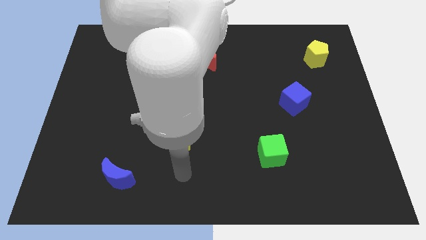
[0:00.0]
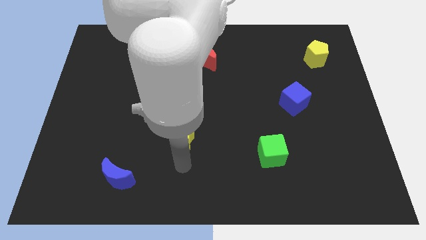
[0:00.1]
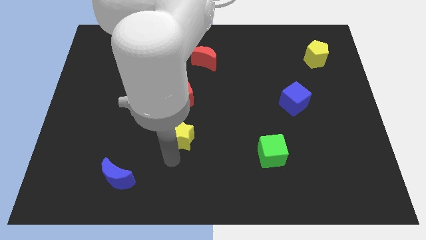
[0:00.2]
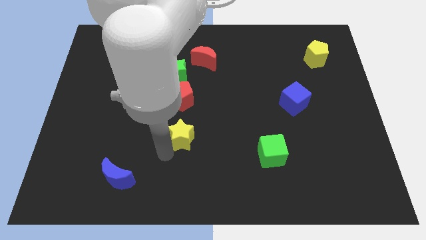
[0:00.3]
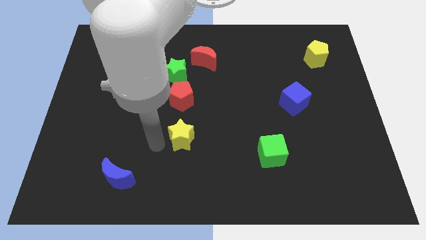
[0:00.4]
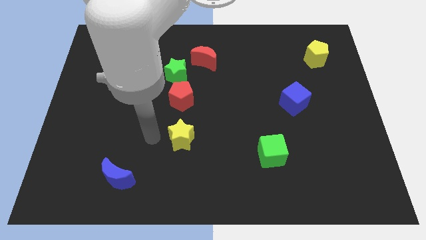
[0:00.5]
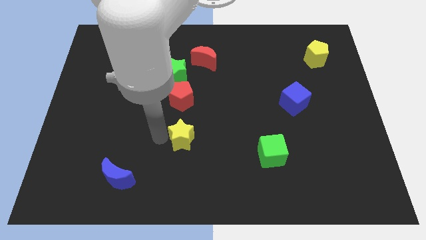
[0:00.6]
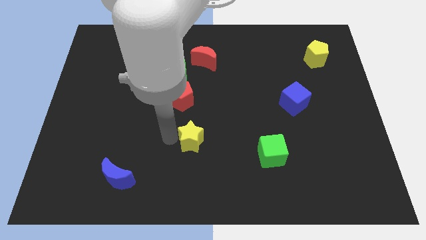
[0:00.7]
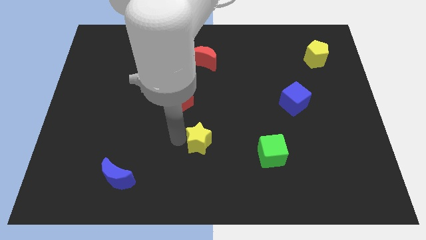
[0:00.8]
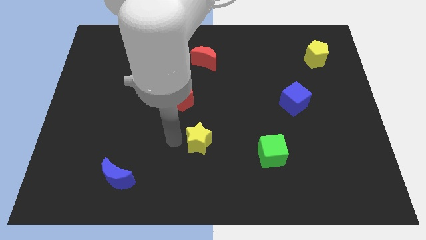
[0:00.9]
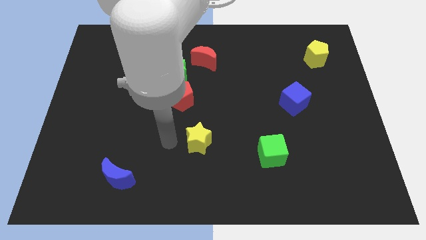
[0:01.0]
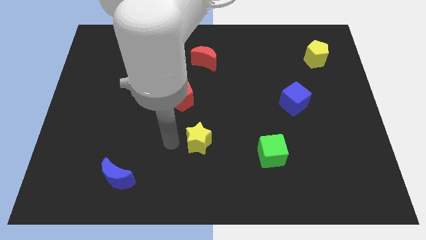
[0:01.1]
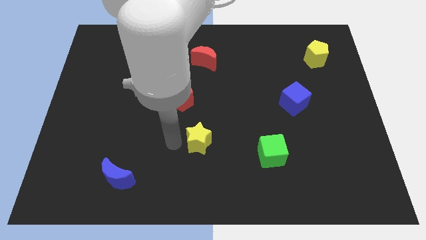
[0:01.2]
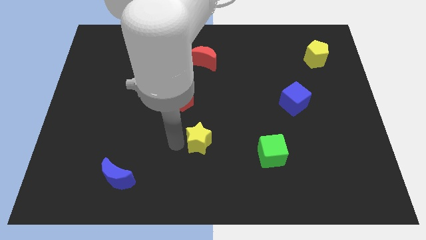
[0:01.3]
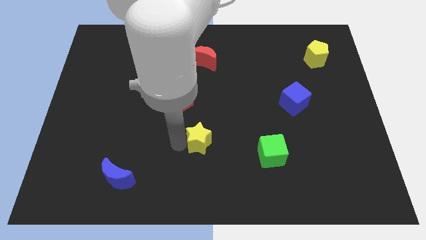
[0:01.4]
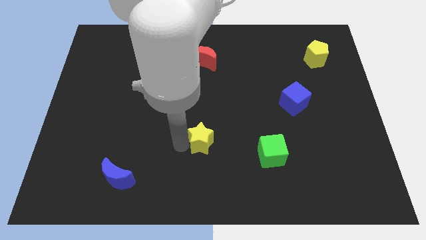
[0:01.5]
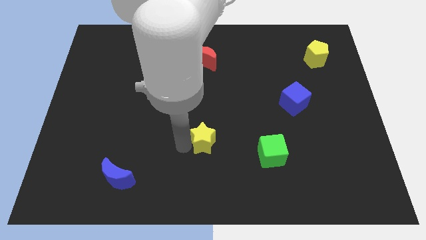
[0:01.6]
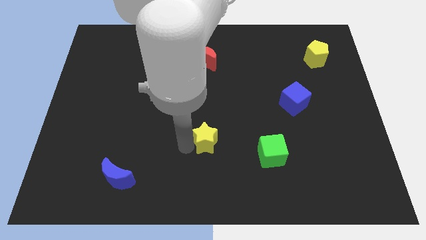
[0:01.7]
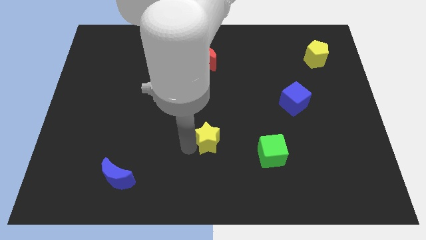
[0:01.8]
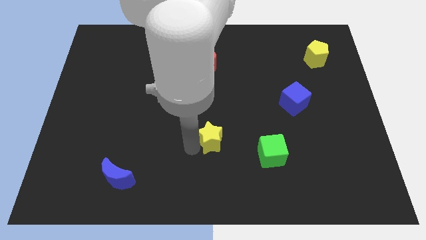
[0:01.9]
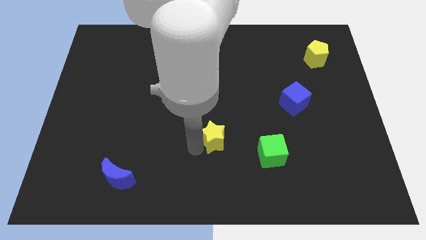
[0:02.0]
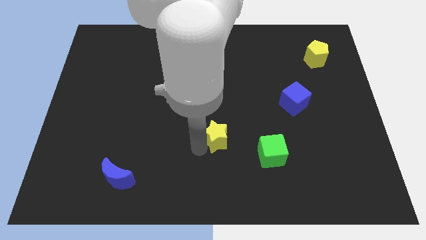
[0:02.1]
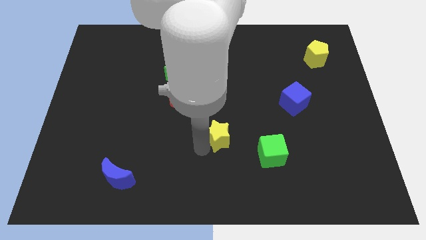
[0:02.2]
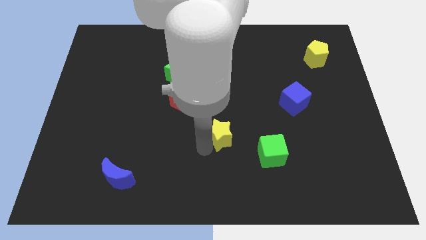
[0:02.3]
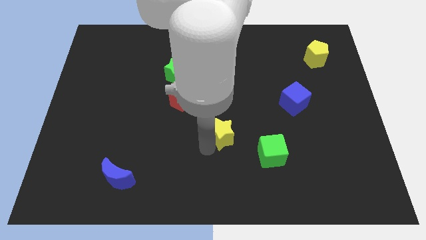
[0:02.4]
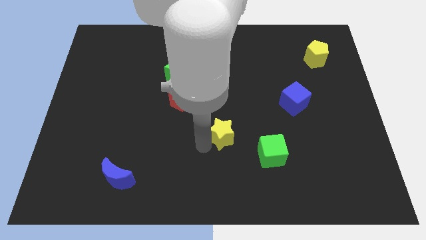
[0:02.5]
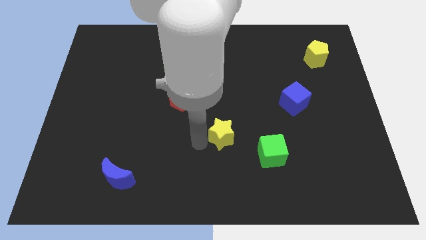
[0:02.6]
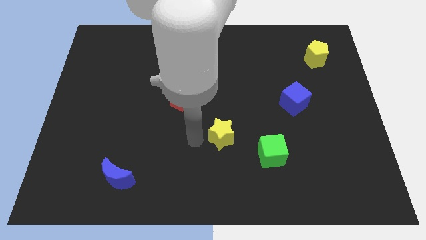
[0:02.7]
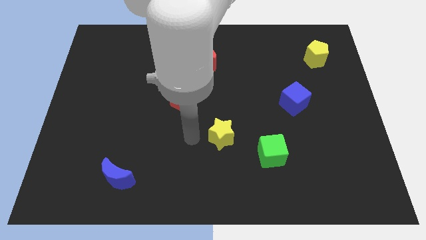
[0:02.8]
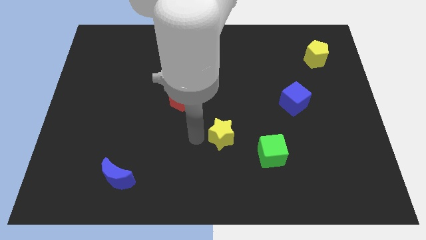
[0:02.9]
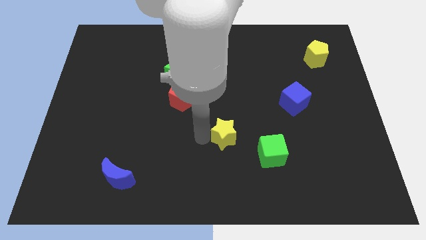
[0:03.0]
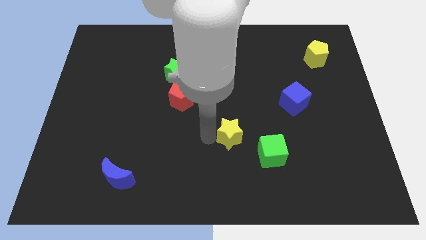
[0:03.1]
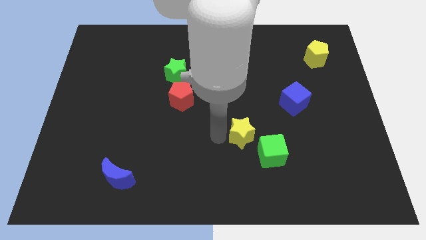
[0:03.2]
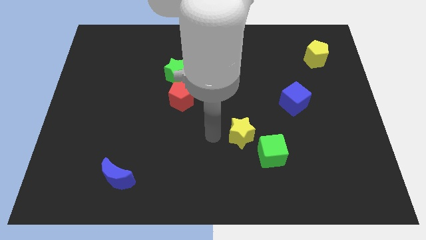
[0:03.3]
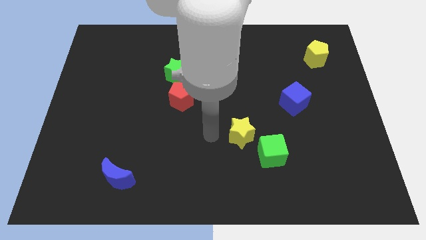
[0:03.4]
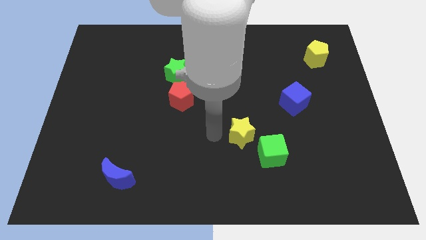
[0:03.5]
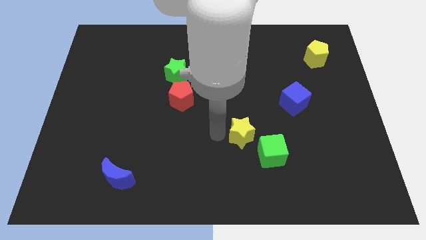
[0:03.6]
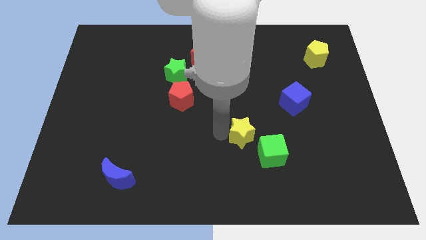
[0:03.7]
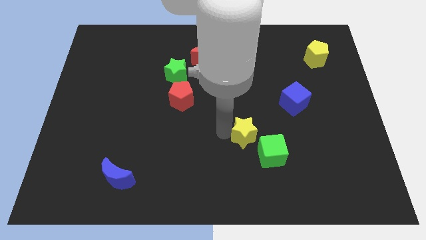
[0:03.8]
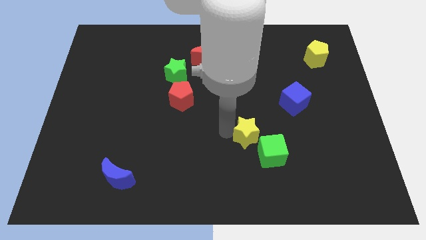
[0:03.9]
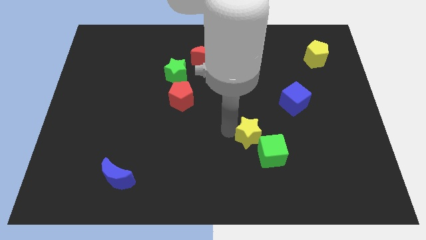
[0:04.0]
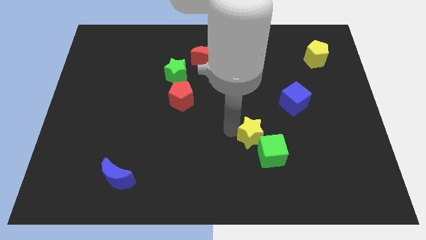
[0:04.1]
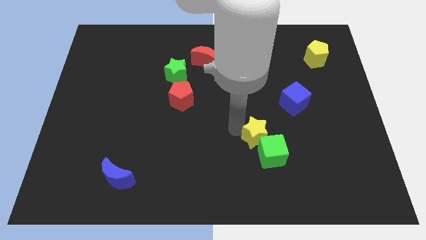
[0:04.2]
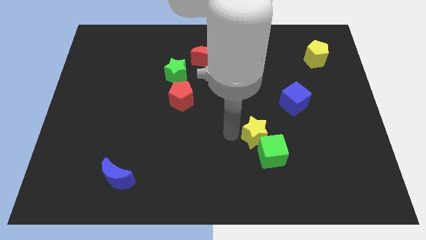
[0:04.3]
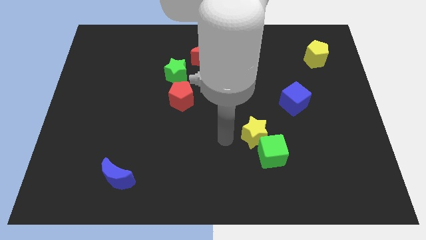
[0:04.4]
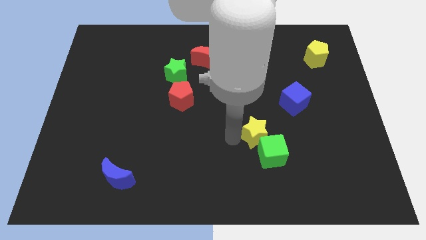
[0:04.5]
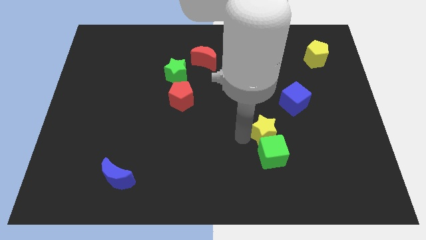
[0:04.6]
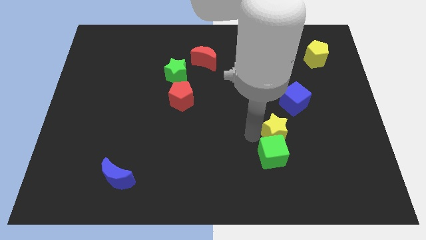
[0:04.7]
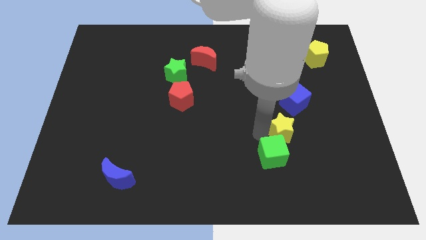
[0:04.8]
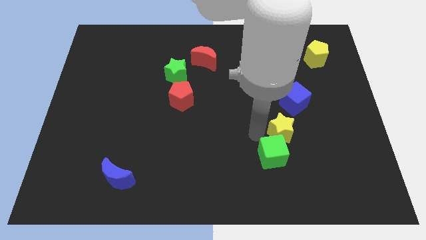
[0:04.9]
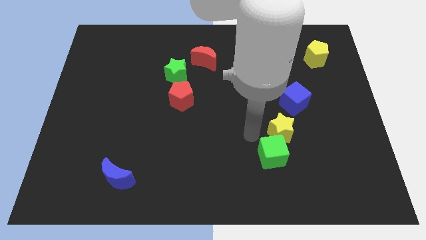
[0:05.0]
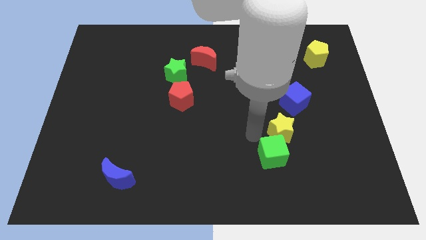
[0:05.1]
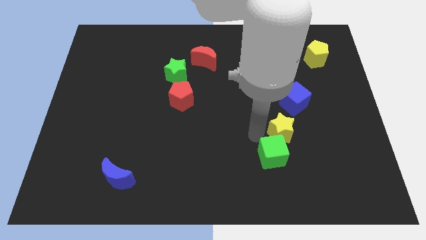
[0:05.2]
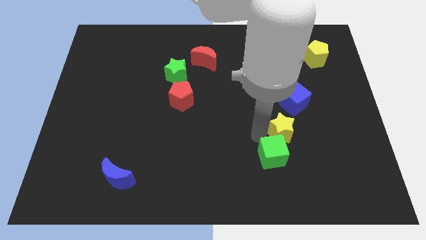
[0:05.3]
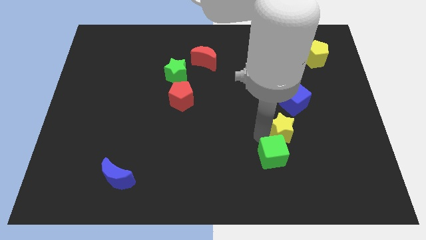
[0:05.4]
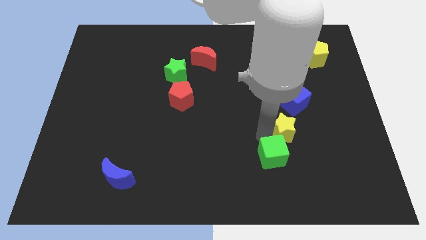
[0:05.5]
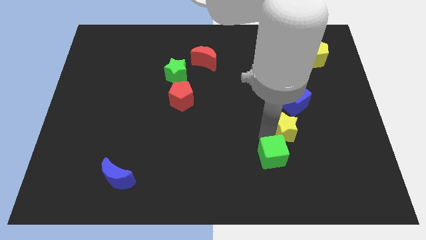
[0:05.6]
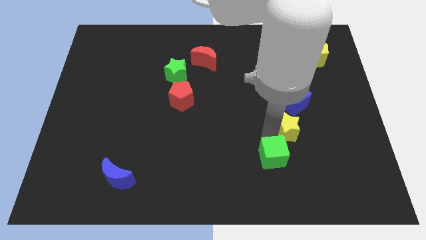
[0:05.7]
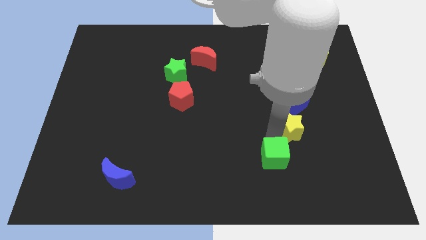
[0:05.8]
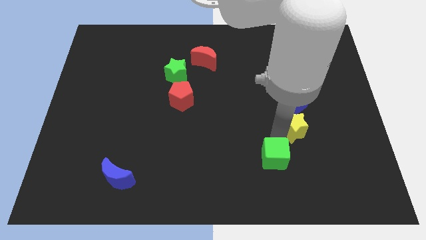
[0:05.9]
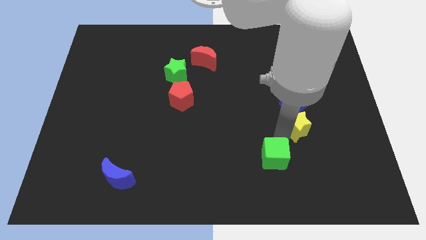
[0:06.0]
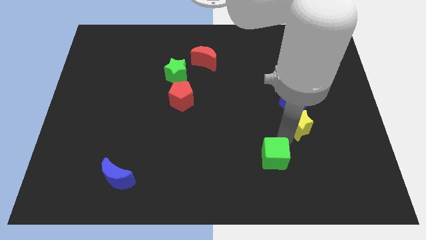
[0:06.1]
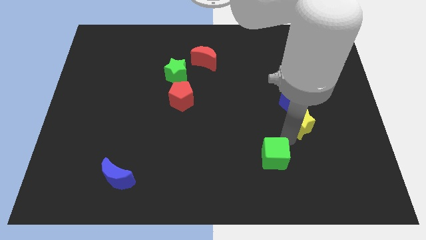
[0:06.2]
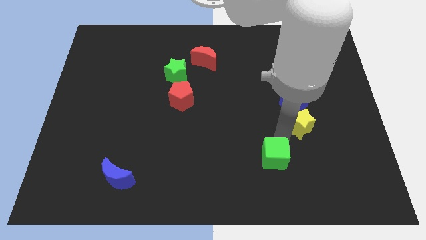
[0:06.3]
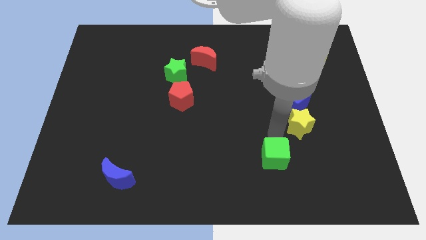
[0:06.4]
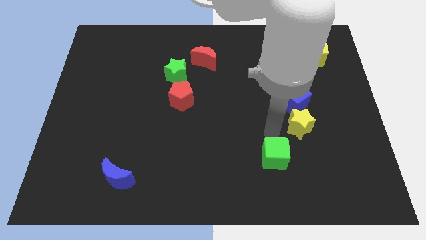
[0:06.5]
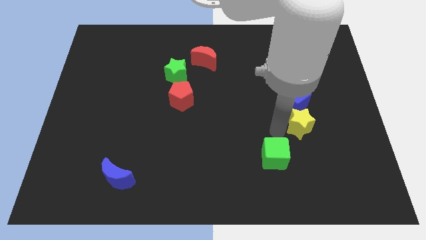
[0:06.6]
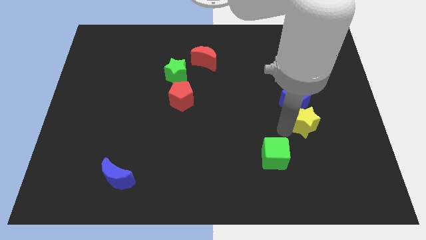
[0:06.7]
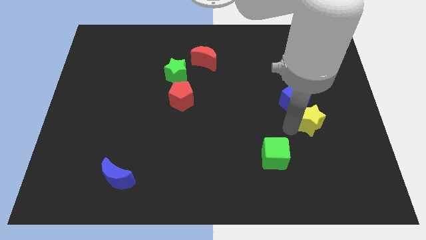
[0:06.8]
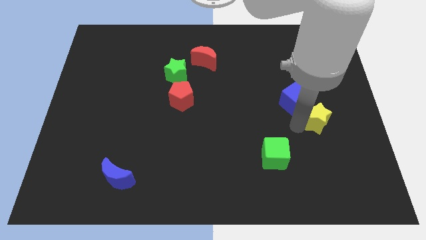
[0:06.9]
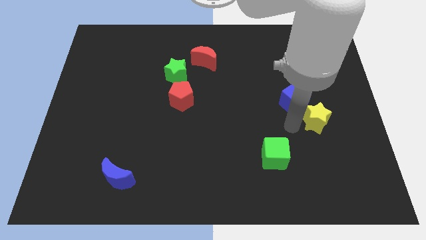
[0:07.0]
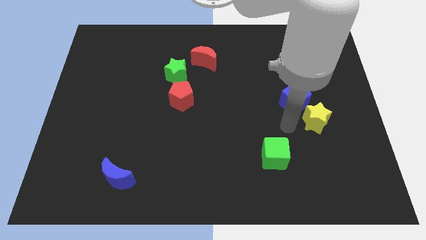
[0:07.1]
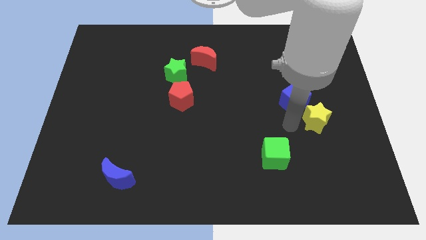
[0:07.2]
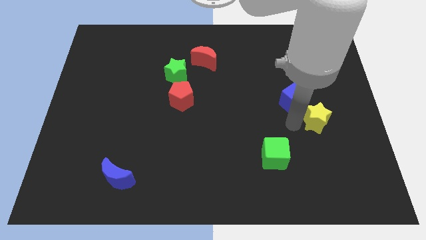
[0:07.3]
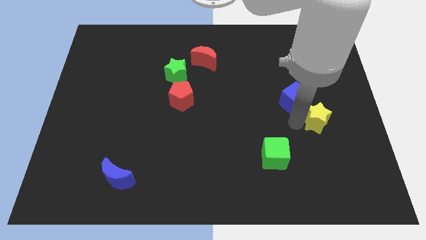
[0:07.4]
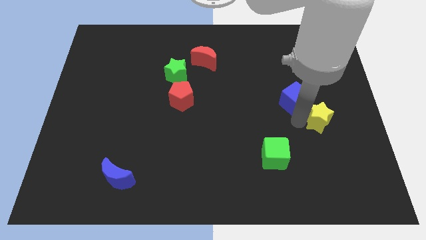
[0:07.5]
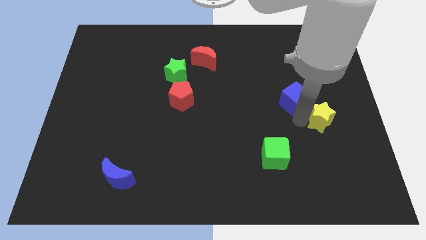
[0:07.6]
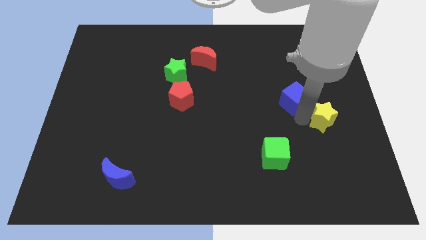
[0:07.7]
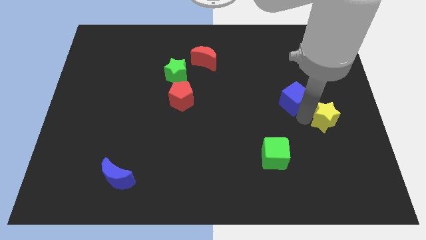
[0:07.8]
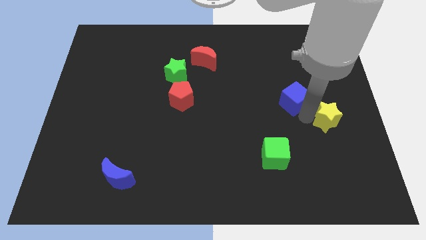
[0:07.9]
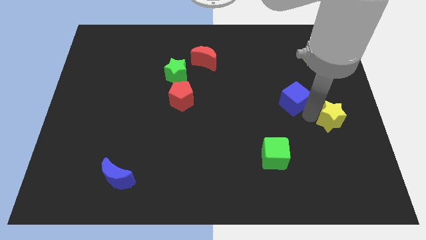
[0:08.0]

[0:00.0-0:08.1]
move the yellow star to the center right
